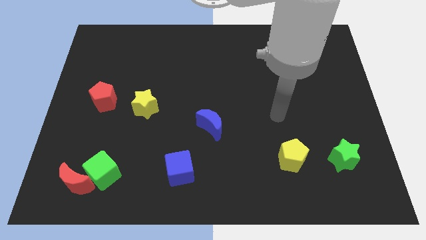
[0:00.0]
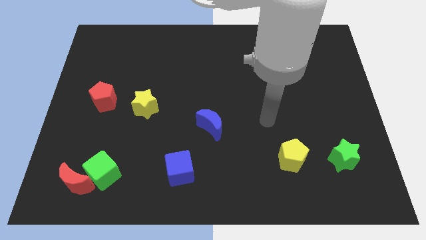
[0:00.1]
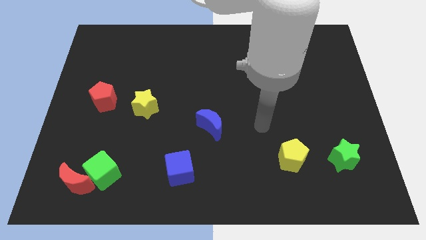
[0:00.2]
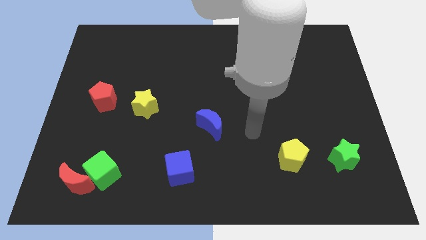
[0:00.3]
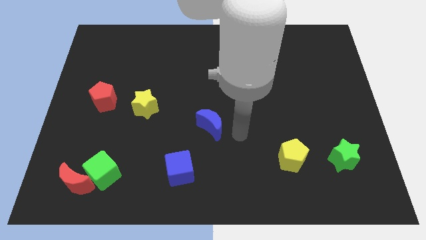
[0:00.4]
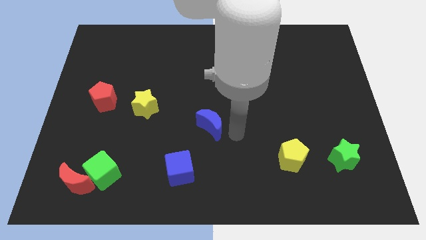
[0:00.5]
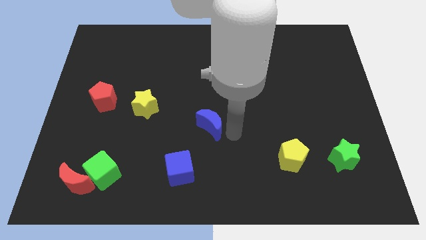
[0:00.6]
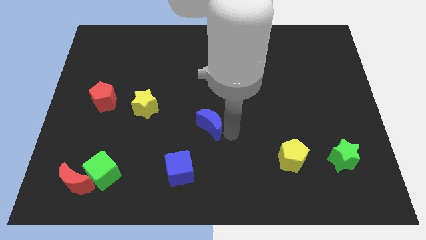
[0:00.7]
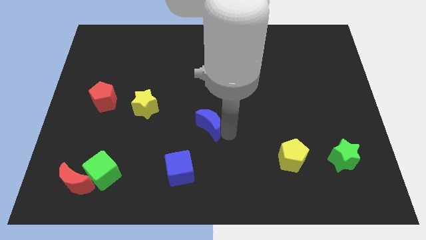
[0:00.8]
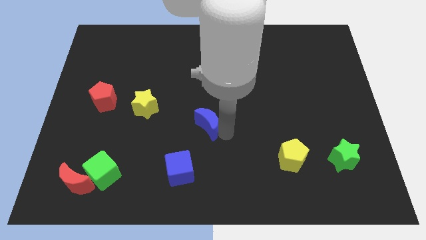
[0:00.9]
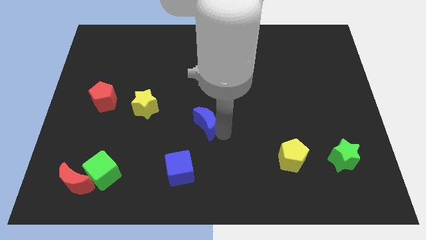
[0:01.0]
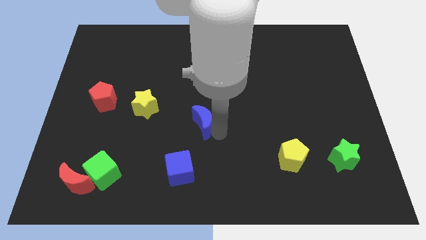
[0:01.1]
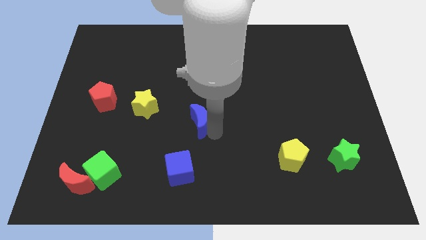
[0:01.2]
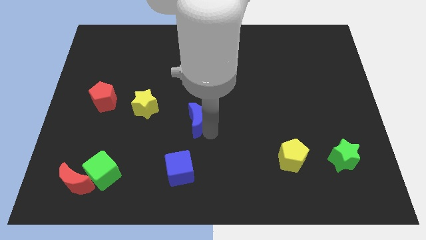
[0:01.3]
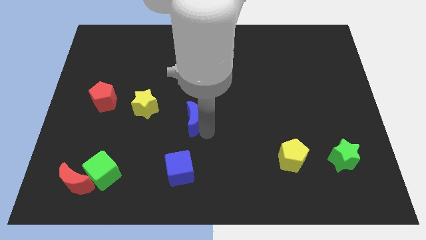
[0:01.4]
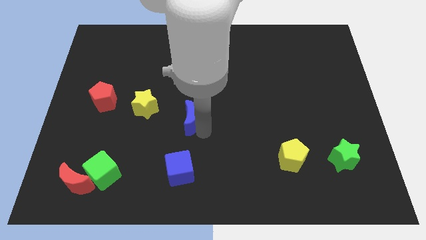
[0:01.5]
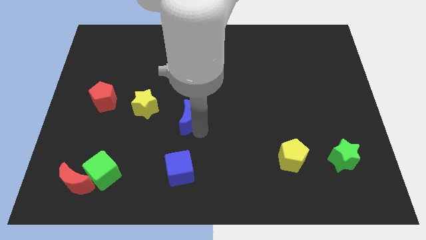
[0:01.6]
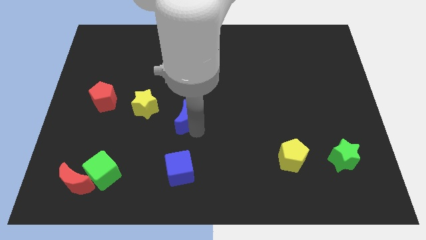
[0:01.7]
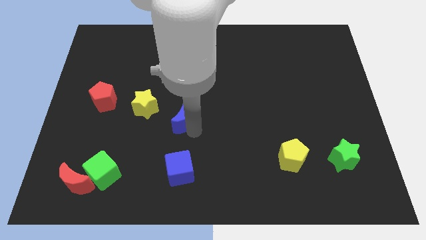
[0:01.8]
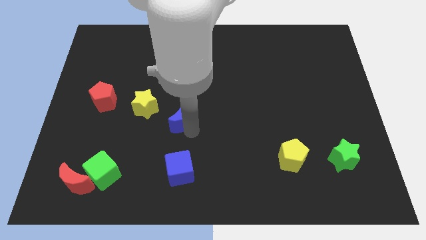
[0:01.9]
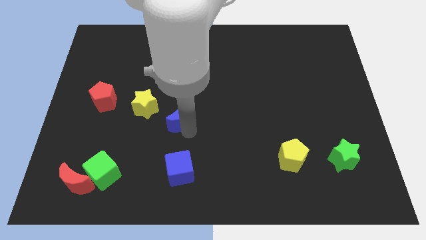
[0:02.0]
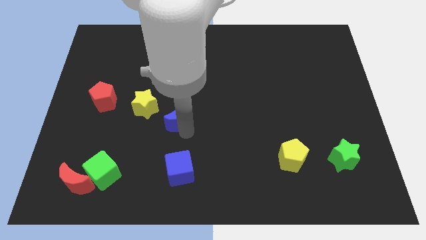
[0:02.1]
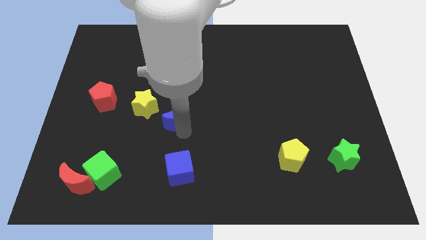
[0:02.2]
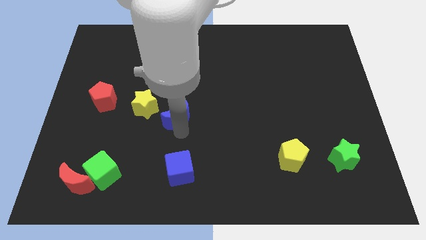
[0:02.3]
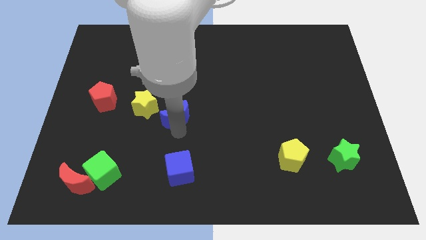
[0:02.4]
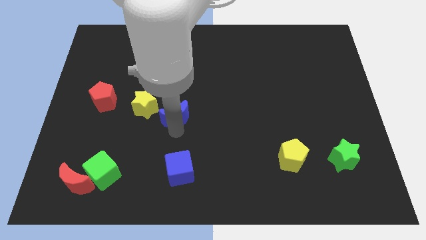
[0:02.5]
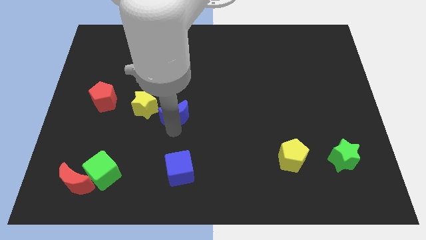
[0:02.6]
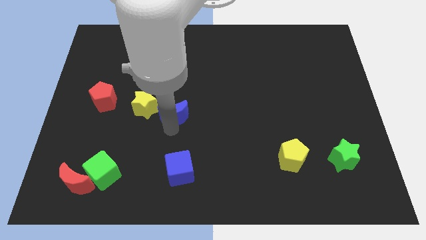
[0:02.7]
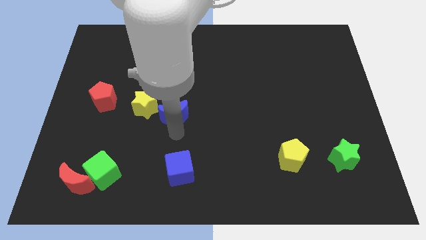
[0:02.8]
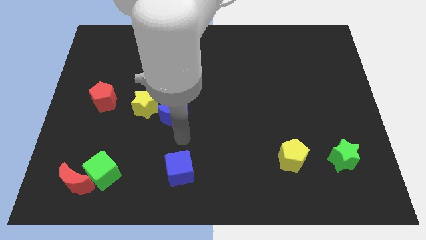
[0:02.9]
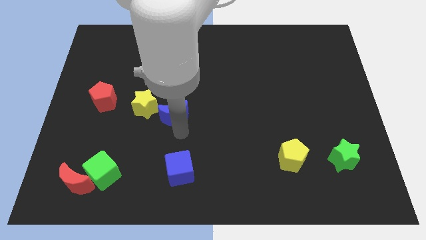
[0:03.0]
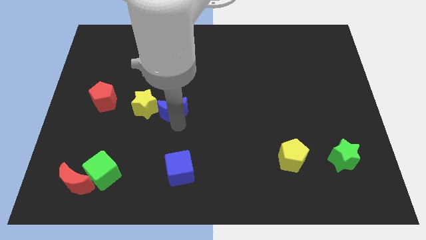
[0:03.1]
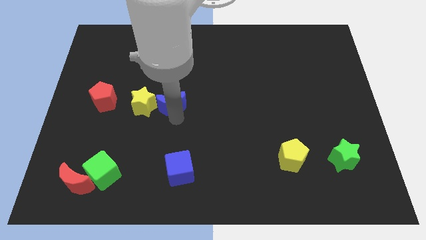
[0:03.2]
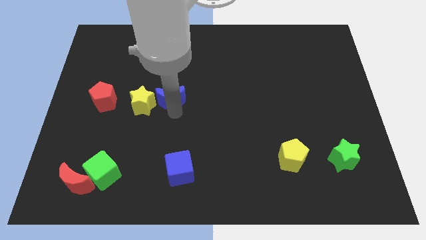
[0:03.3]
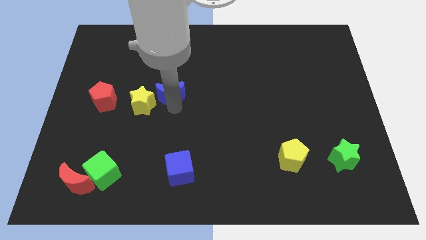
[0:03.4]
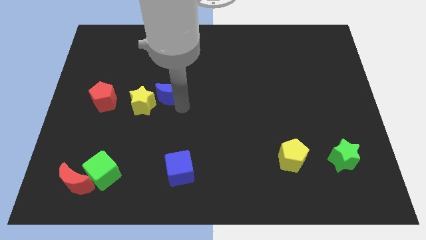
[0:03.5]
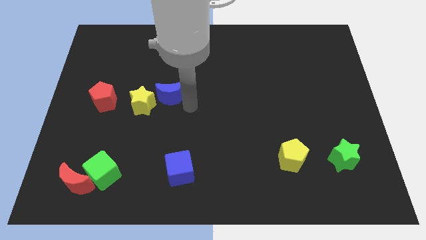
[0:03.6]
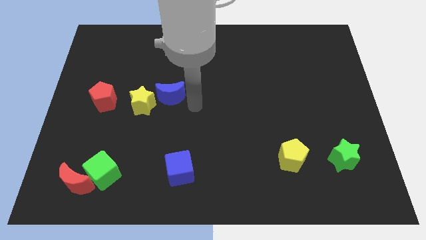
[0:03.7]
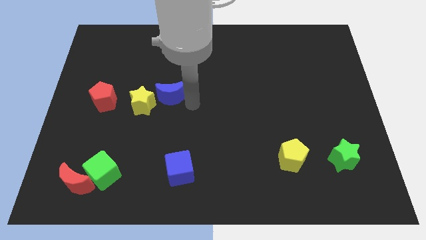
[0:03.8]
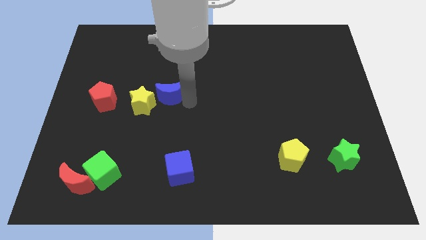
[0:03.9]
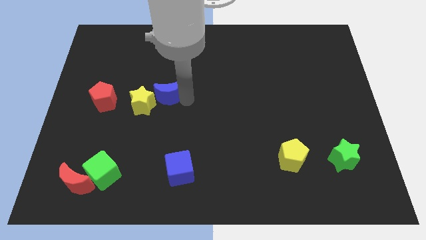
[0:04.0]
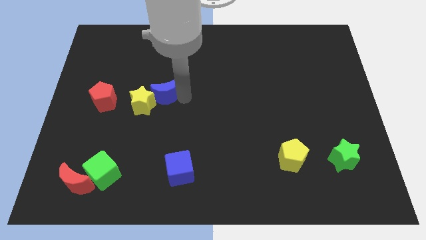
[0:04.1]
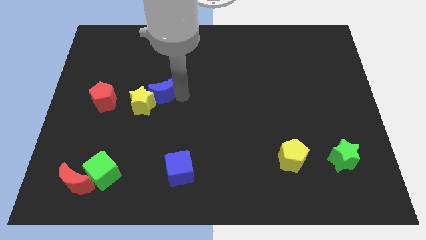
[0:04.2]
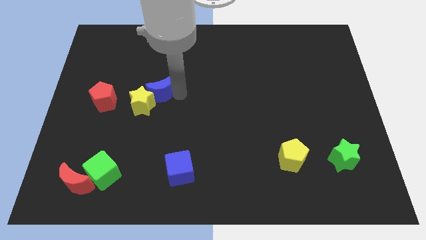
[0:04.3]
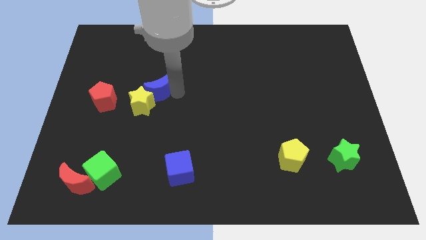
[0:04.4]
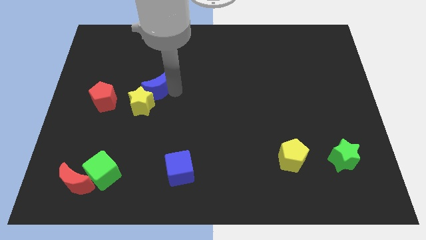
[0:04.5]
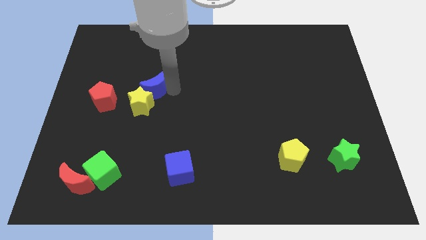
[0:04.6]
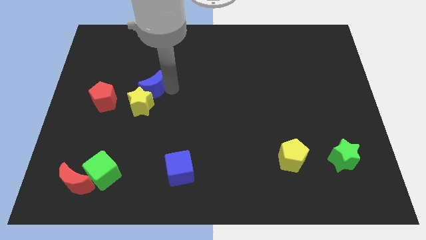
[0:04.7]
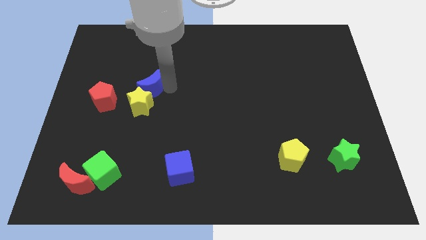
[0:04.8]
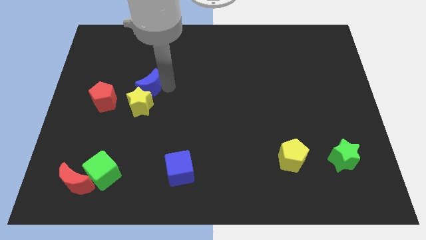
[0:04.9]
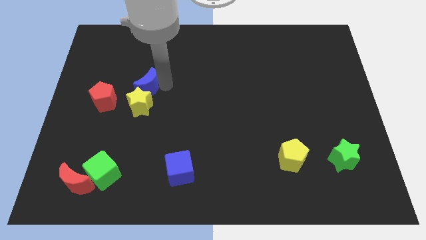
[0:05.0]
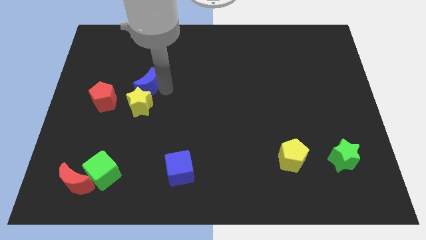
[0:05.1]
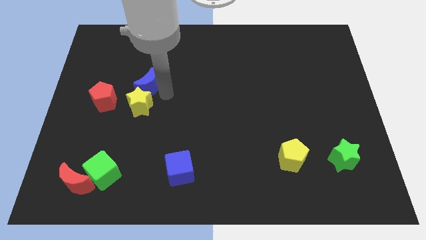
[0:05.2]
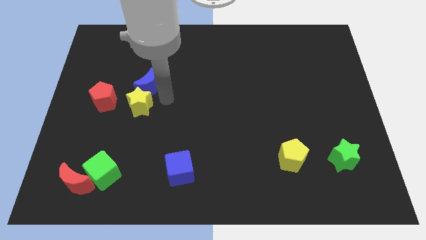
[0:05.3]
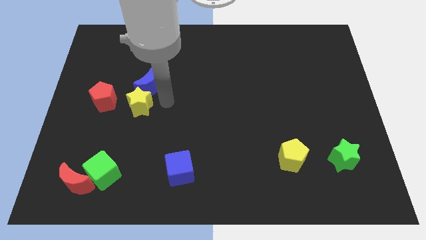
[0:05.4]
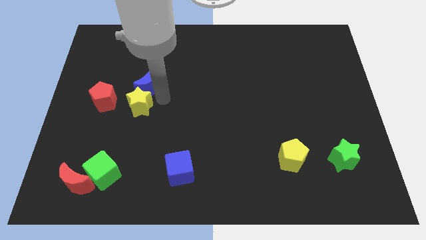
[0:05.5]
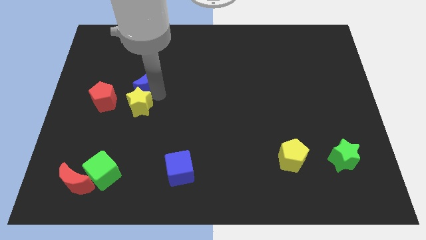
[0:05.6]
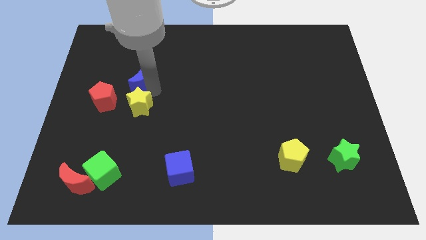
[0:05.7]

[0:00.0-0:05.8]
slide the blue moon upwards and left

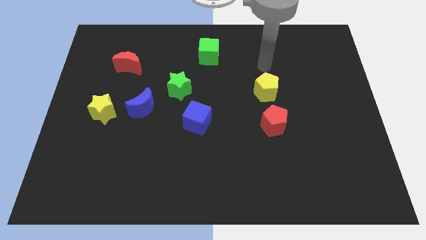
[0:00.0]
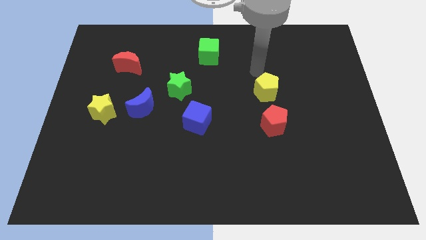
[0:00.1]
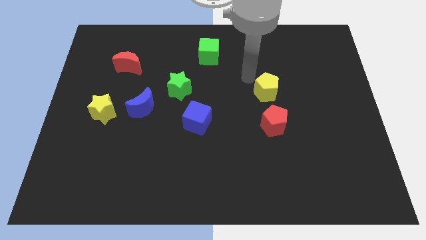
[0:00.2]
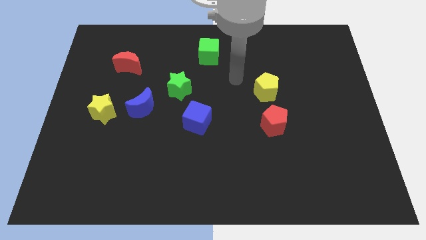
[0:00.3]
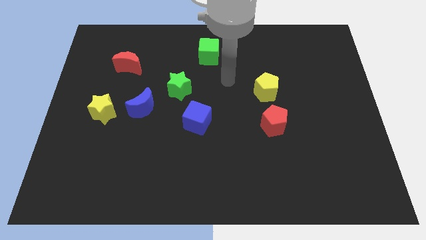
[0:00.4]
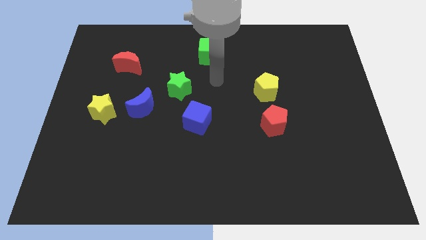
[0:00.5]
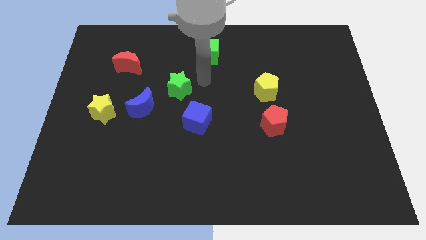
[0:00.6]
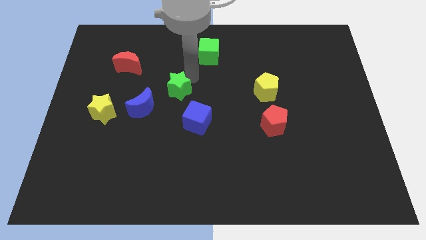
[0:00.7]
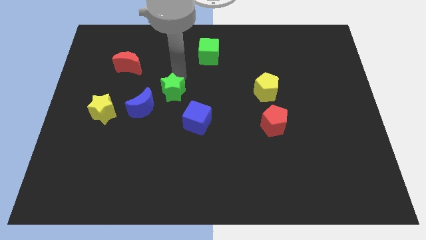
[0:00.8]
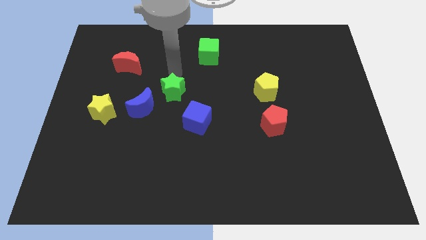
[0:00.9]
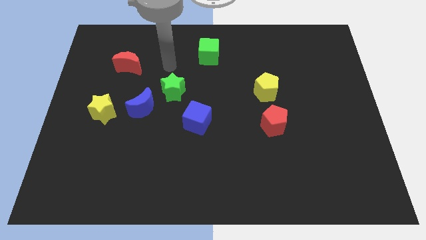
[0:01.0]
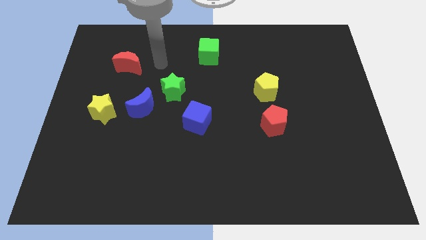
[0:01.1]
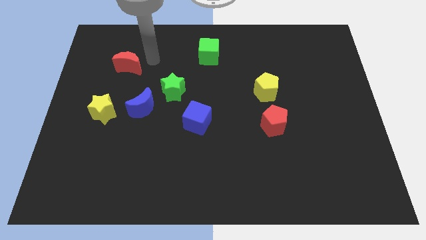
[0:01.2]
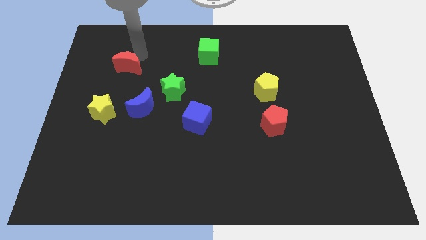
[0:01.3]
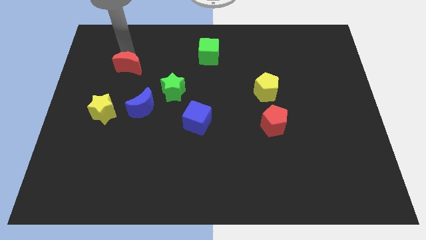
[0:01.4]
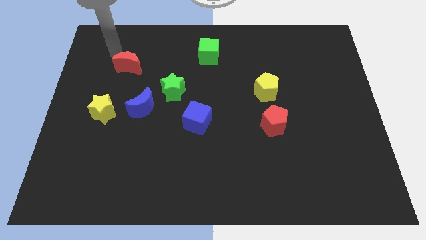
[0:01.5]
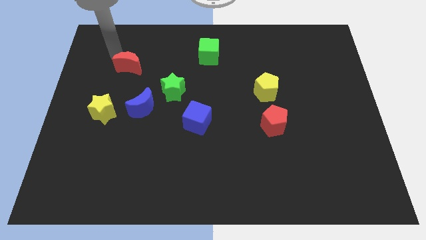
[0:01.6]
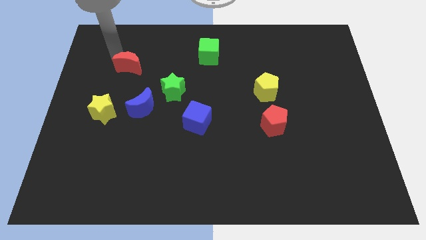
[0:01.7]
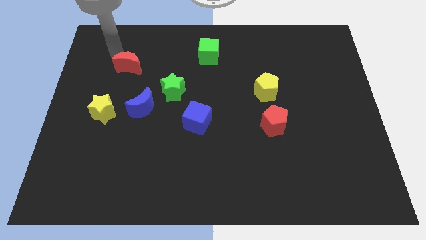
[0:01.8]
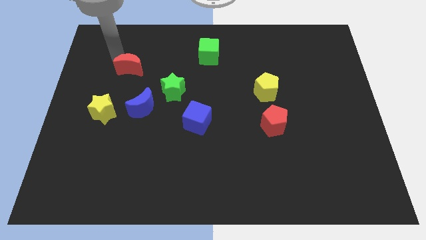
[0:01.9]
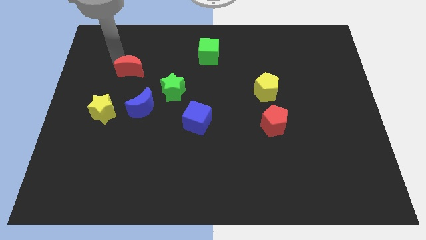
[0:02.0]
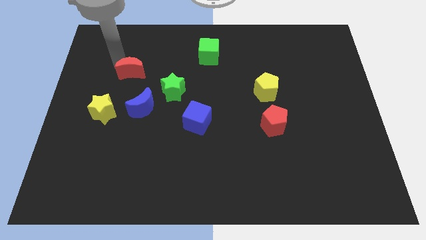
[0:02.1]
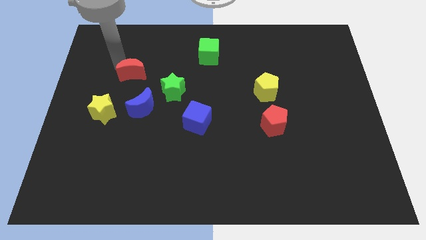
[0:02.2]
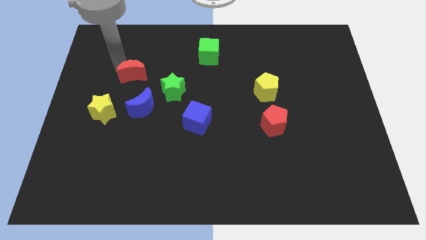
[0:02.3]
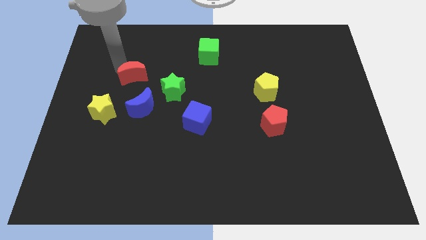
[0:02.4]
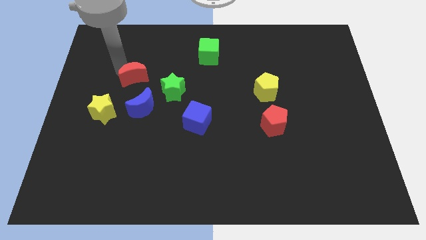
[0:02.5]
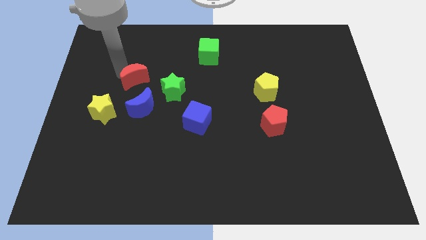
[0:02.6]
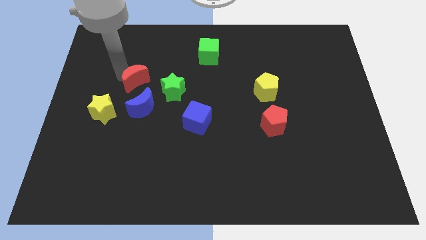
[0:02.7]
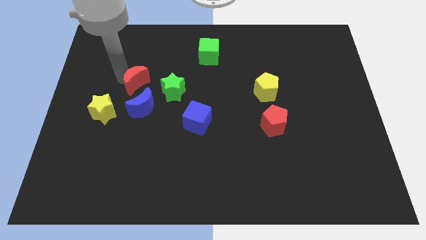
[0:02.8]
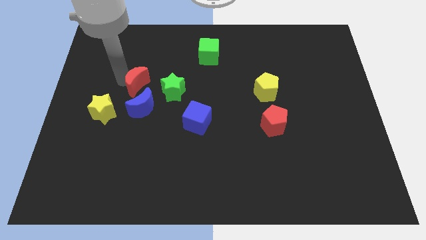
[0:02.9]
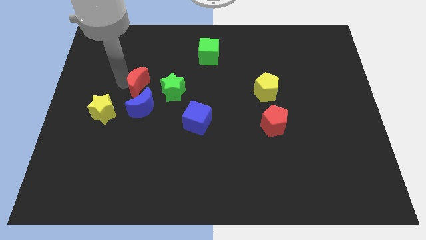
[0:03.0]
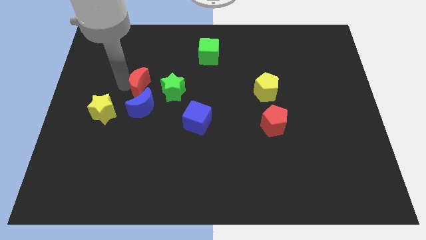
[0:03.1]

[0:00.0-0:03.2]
slide the red moon diagonally down and to the right a little bit
